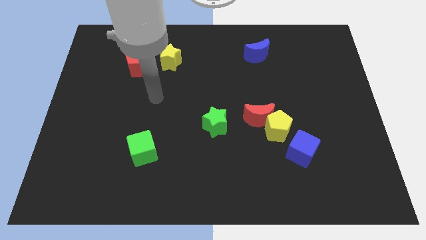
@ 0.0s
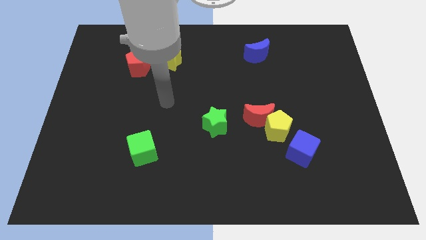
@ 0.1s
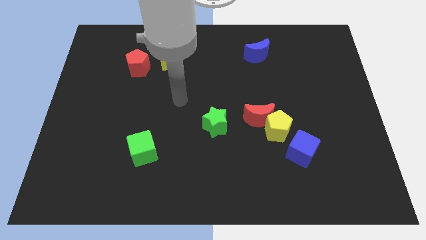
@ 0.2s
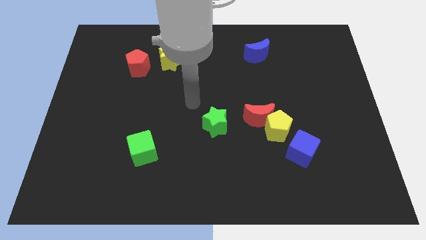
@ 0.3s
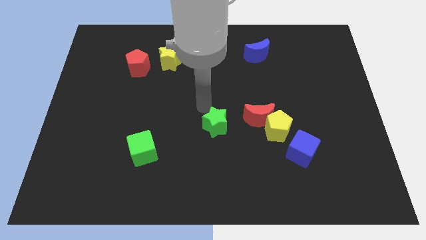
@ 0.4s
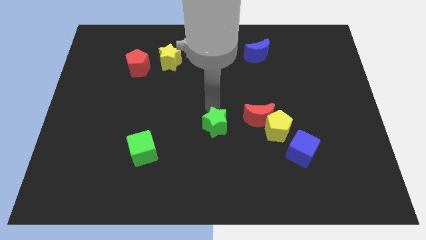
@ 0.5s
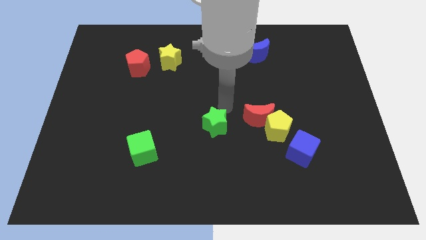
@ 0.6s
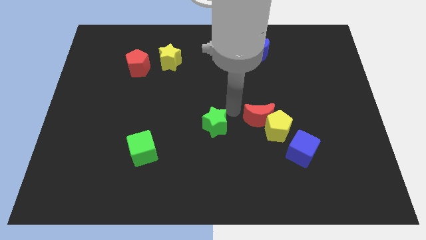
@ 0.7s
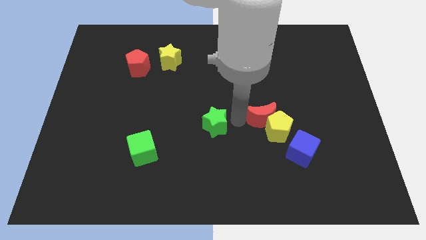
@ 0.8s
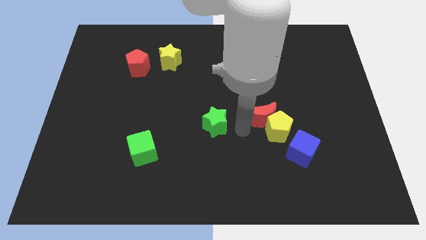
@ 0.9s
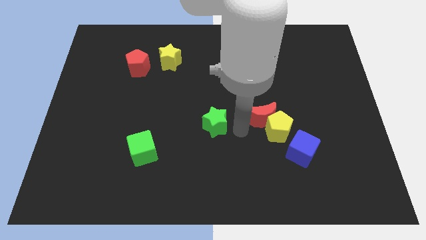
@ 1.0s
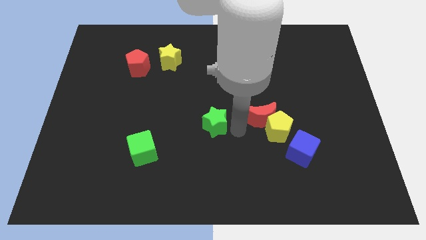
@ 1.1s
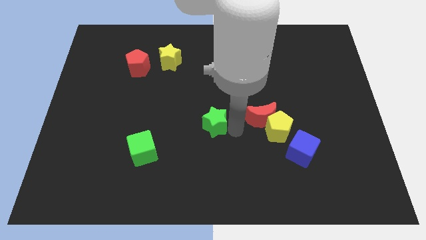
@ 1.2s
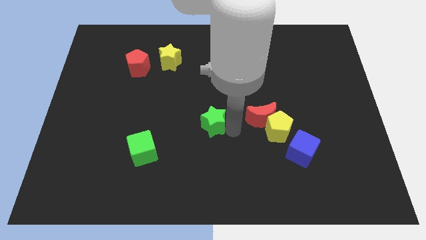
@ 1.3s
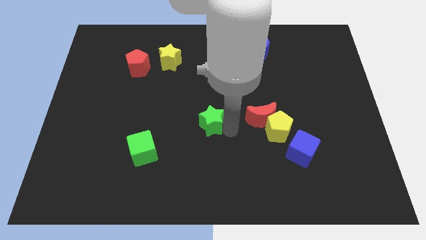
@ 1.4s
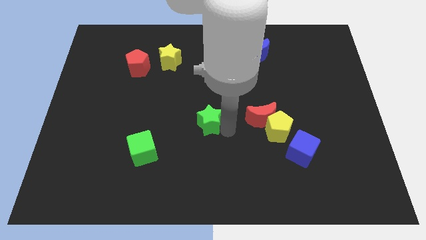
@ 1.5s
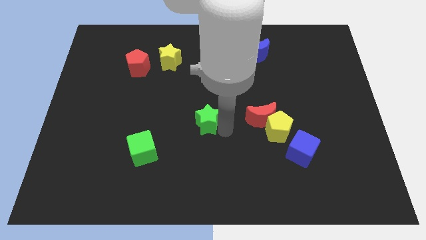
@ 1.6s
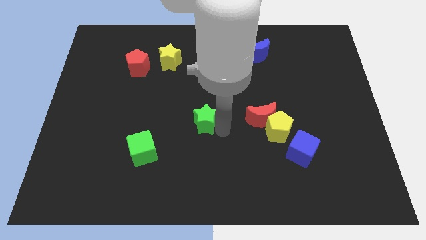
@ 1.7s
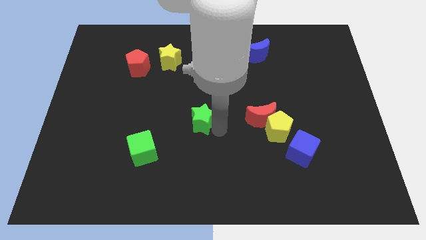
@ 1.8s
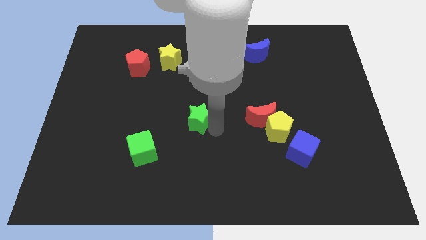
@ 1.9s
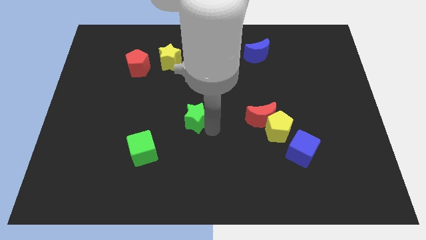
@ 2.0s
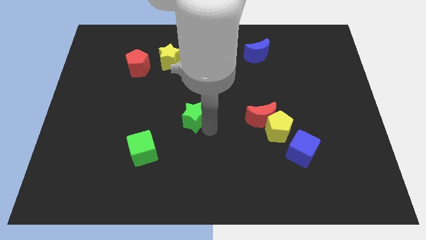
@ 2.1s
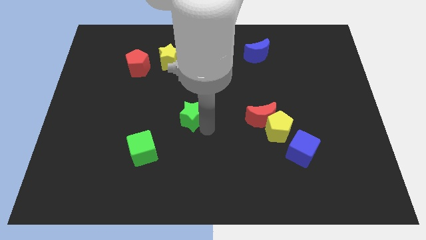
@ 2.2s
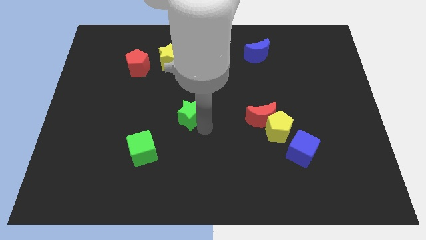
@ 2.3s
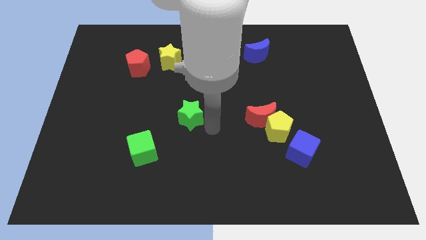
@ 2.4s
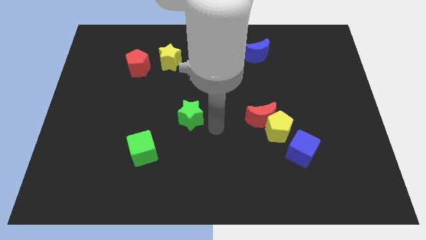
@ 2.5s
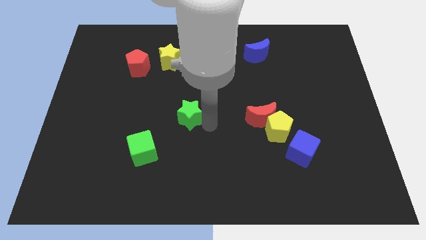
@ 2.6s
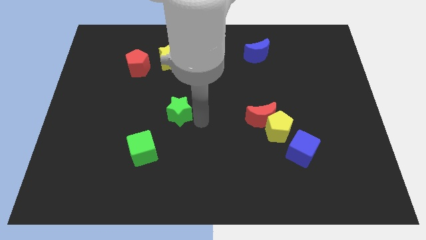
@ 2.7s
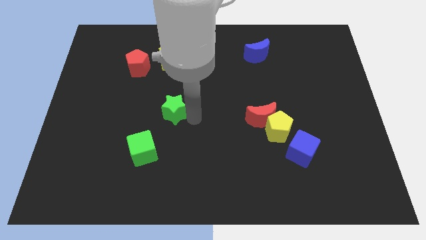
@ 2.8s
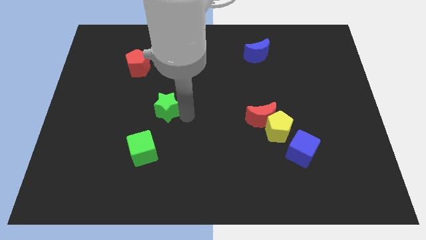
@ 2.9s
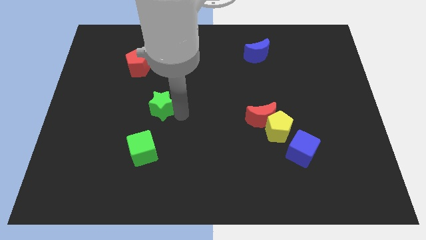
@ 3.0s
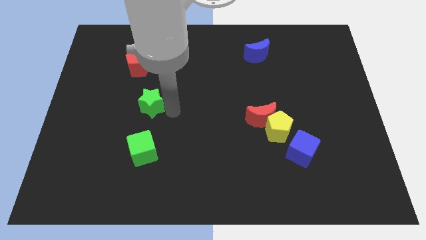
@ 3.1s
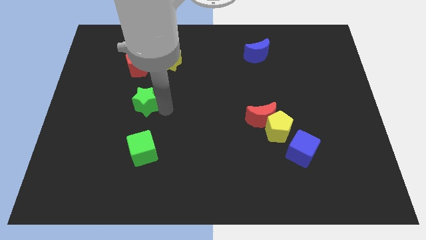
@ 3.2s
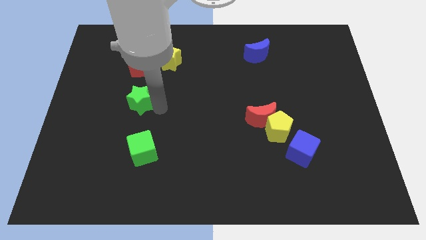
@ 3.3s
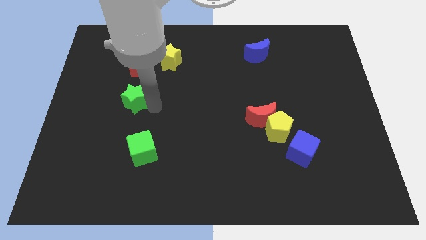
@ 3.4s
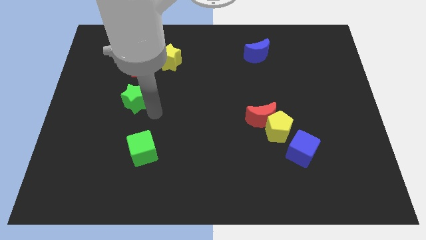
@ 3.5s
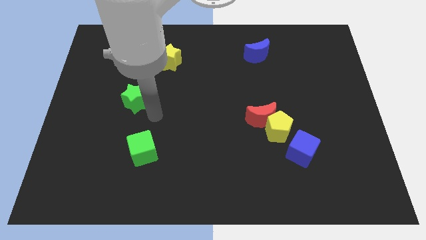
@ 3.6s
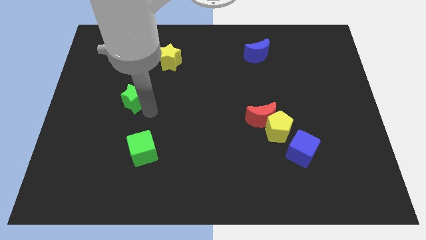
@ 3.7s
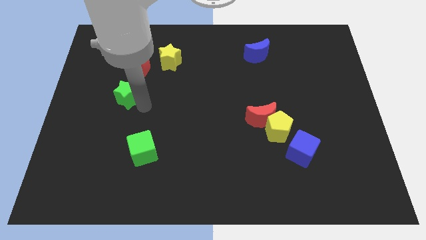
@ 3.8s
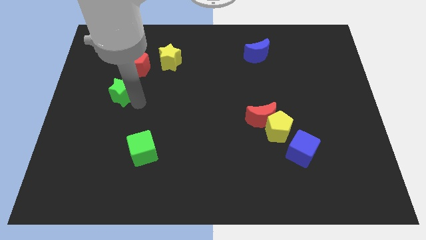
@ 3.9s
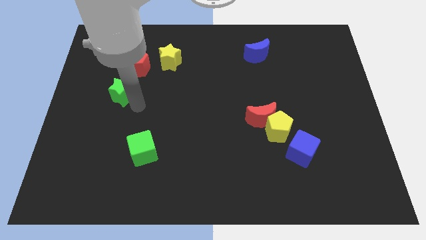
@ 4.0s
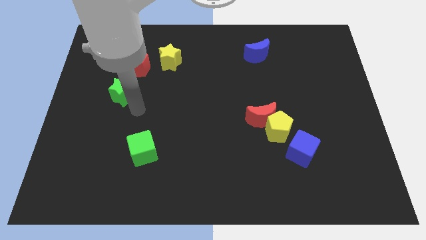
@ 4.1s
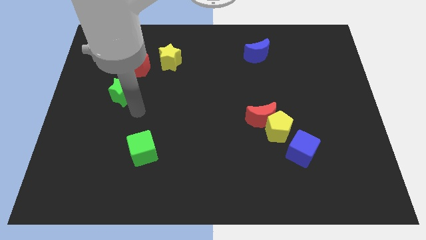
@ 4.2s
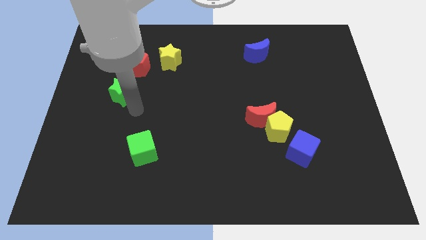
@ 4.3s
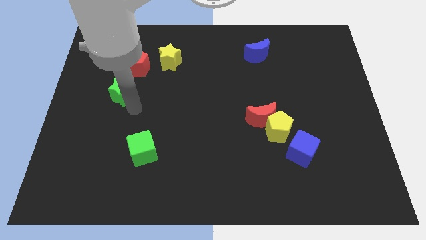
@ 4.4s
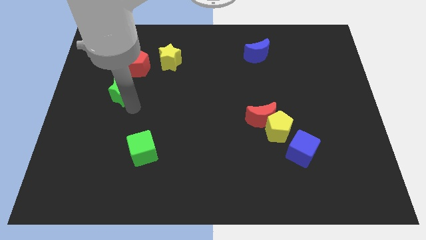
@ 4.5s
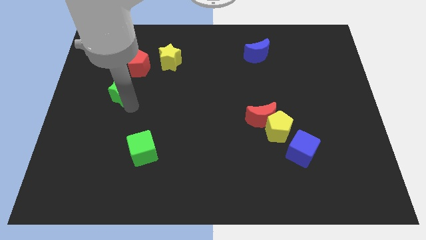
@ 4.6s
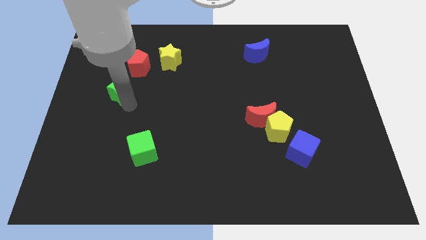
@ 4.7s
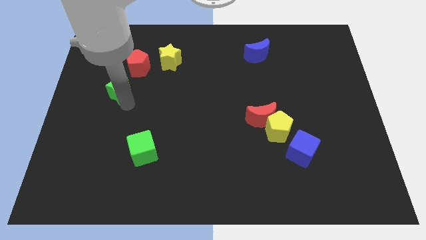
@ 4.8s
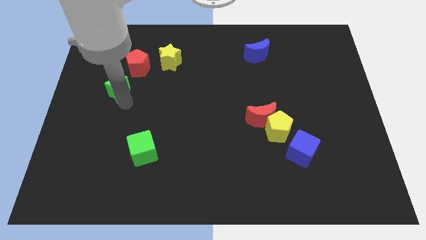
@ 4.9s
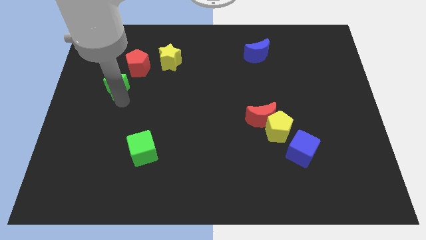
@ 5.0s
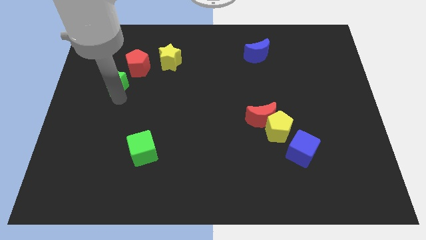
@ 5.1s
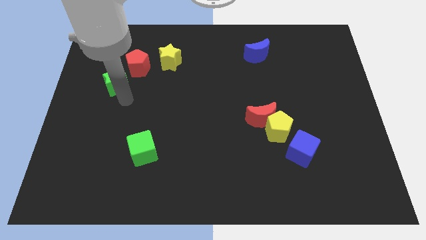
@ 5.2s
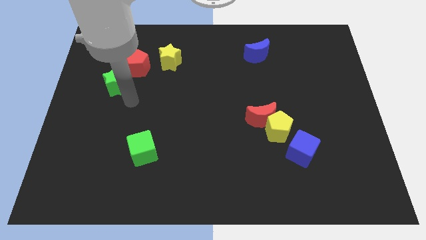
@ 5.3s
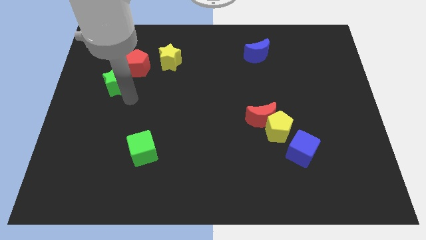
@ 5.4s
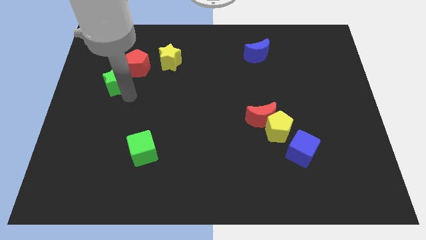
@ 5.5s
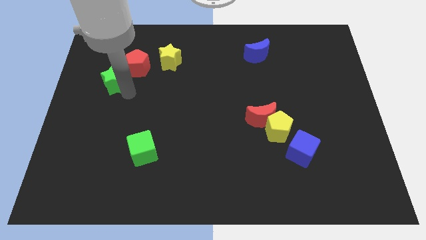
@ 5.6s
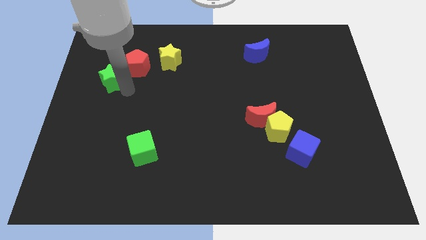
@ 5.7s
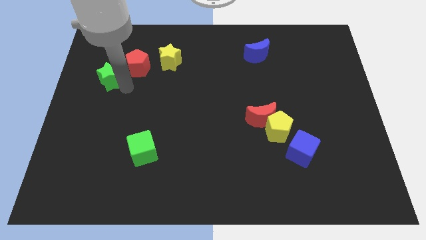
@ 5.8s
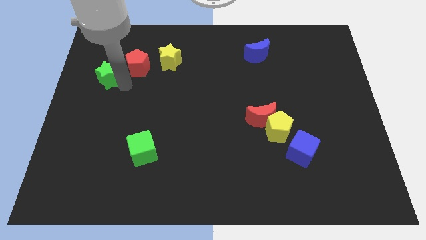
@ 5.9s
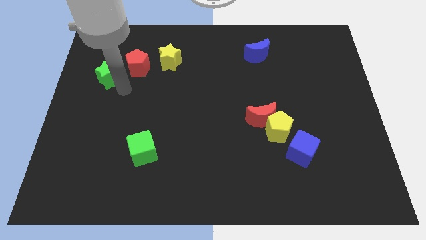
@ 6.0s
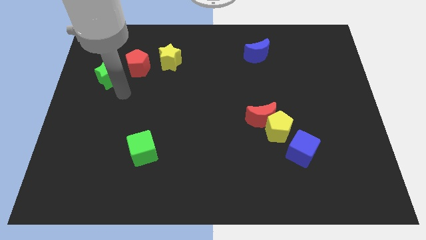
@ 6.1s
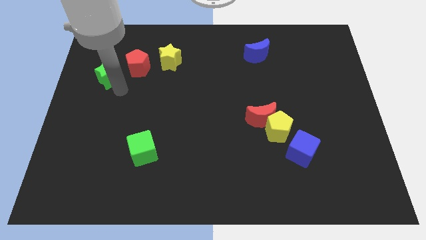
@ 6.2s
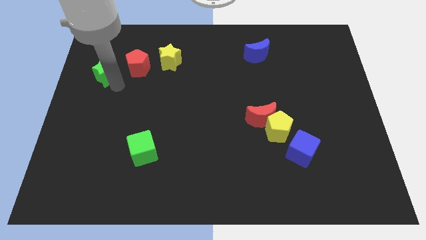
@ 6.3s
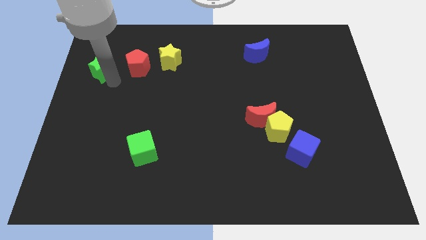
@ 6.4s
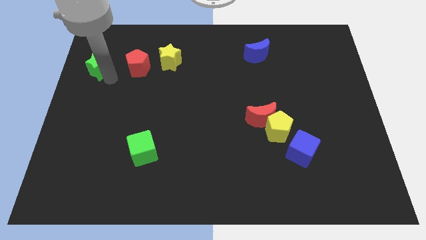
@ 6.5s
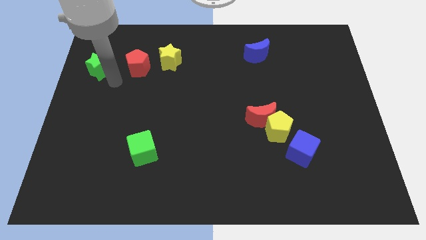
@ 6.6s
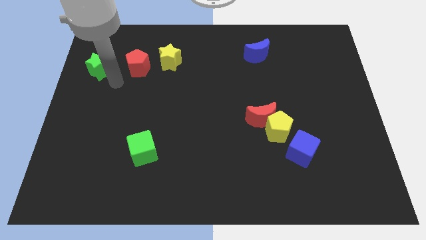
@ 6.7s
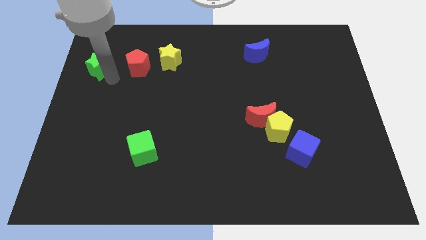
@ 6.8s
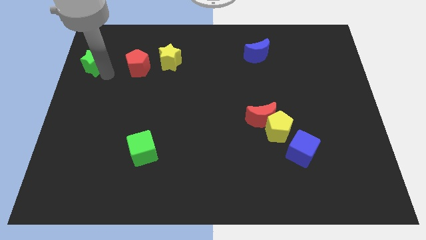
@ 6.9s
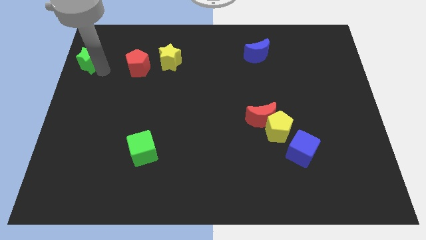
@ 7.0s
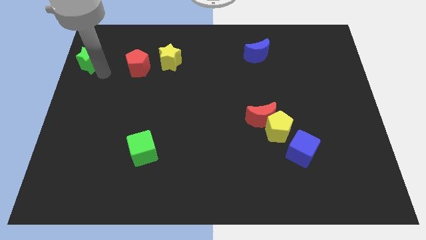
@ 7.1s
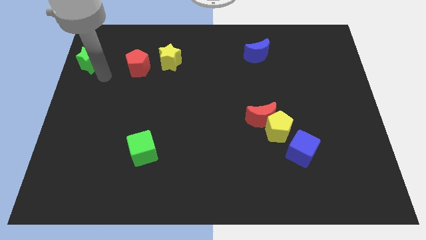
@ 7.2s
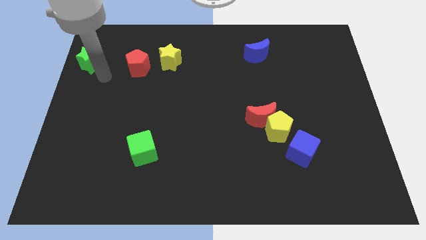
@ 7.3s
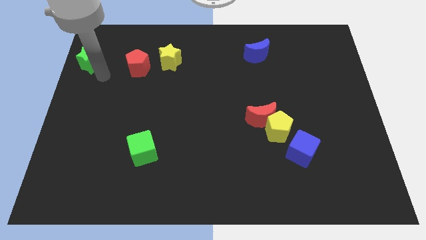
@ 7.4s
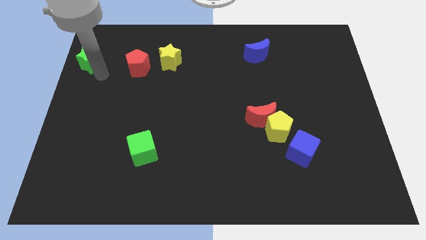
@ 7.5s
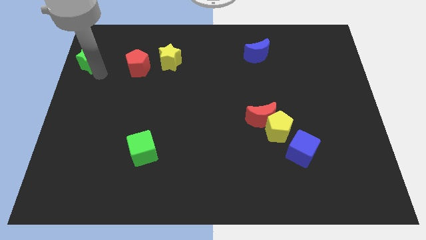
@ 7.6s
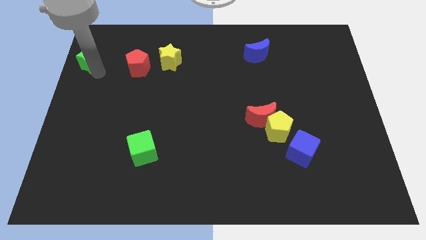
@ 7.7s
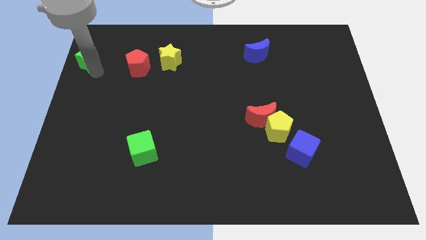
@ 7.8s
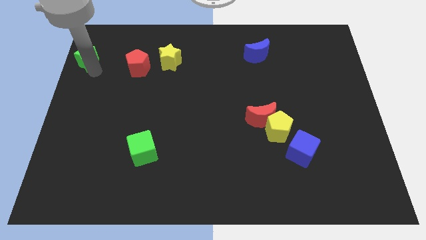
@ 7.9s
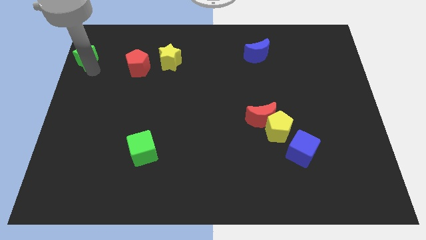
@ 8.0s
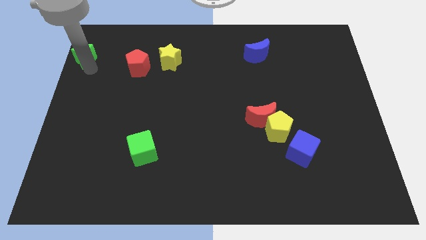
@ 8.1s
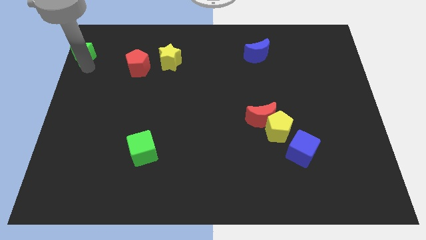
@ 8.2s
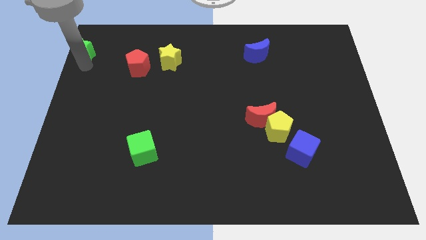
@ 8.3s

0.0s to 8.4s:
move the green star to the upper left corner
